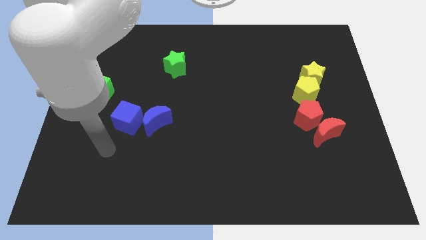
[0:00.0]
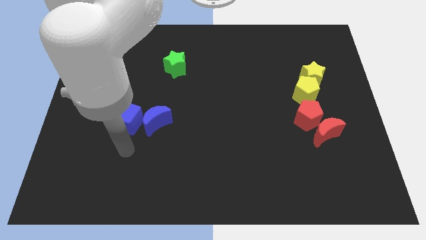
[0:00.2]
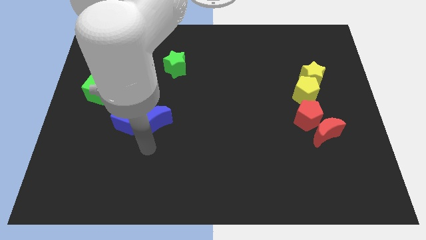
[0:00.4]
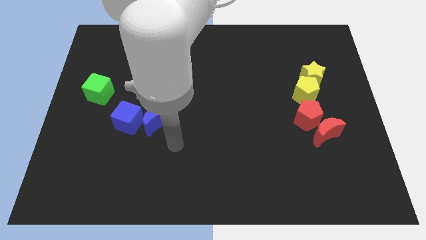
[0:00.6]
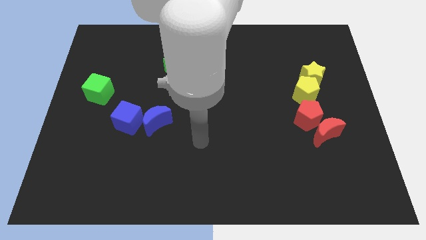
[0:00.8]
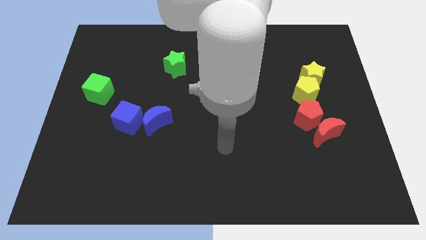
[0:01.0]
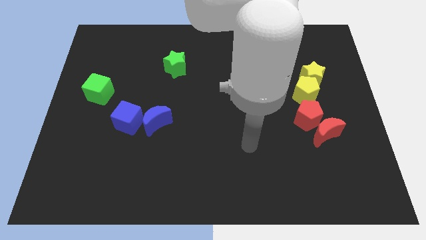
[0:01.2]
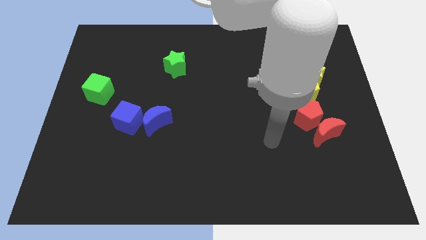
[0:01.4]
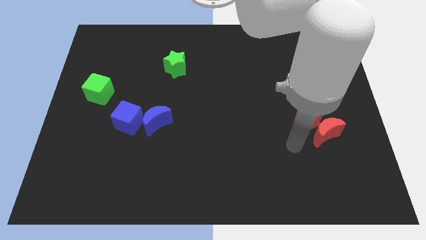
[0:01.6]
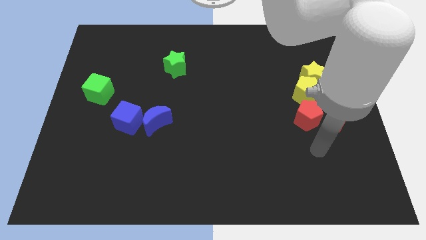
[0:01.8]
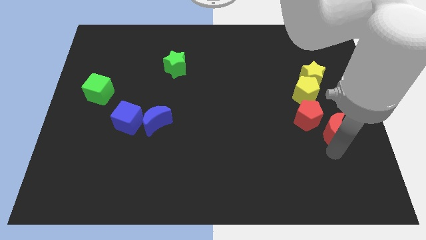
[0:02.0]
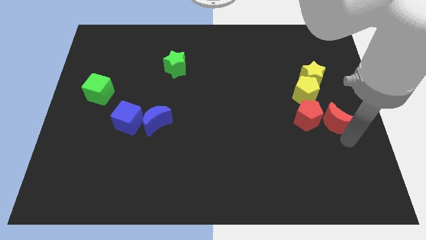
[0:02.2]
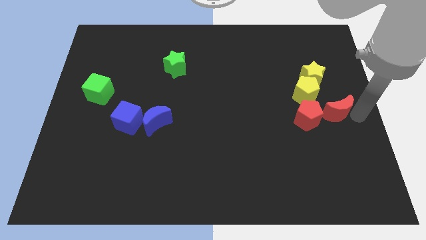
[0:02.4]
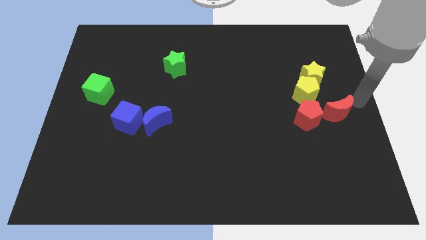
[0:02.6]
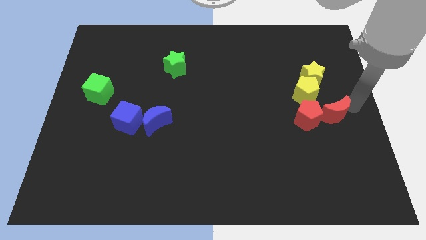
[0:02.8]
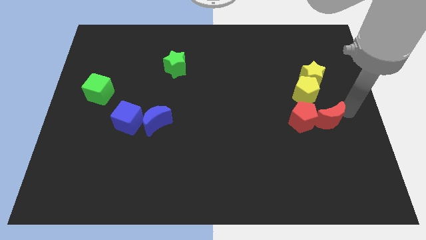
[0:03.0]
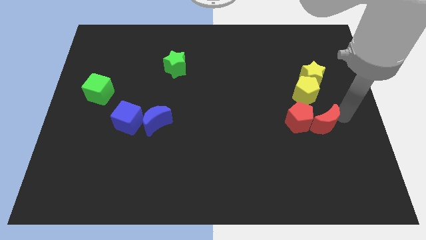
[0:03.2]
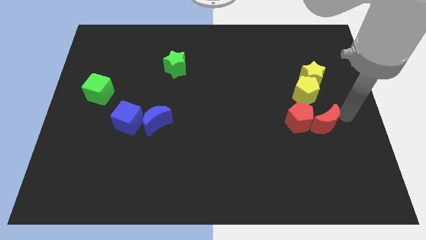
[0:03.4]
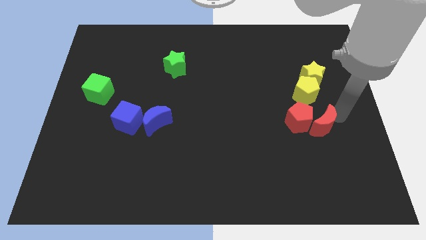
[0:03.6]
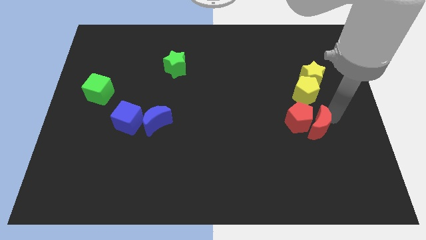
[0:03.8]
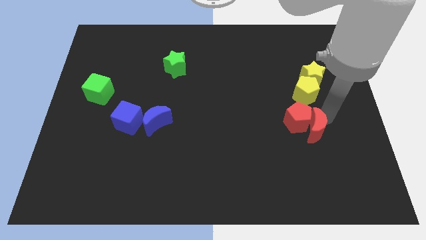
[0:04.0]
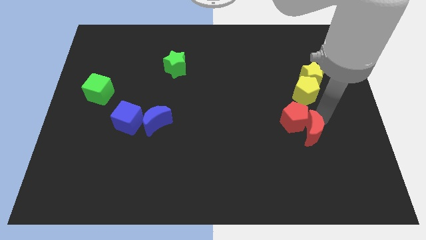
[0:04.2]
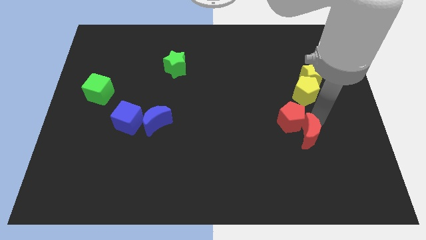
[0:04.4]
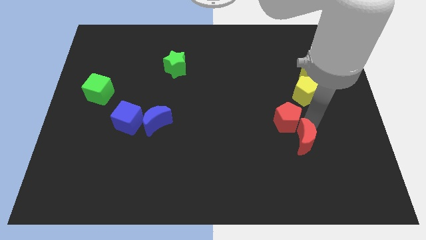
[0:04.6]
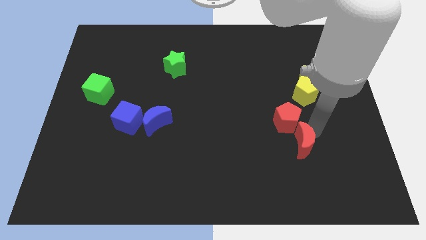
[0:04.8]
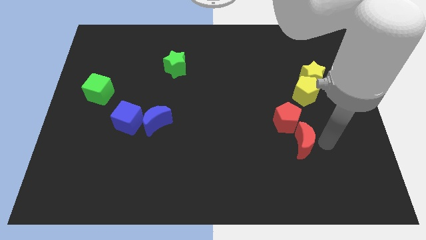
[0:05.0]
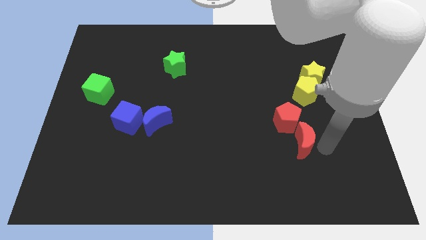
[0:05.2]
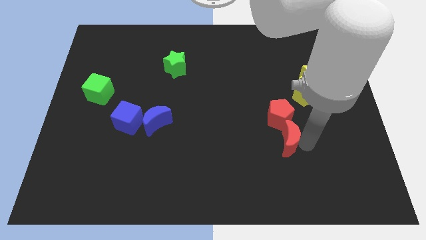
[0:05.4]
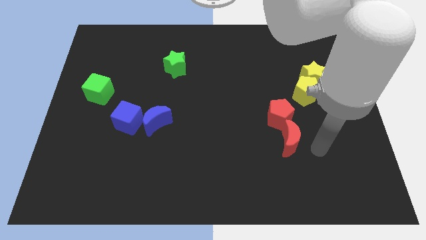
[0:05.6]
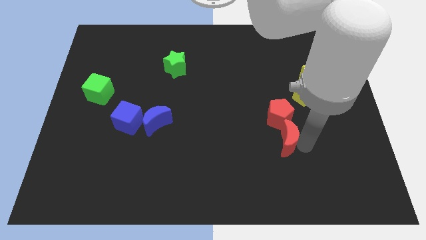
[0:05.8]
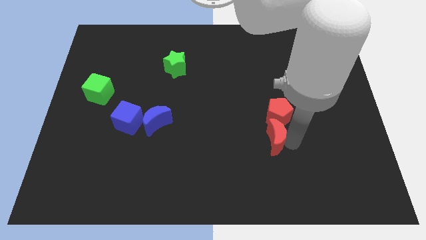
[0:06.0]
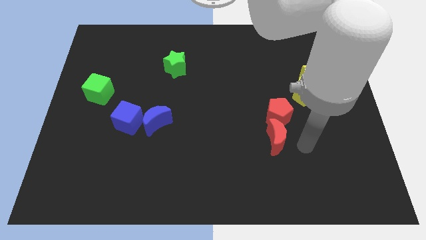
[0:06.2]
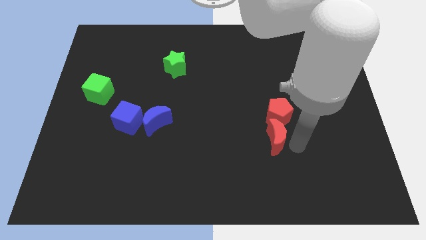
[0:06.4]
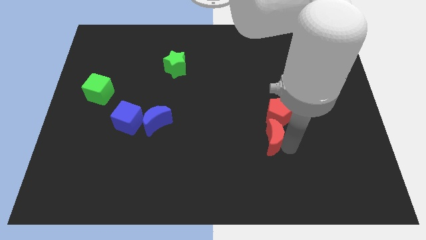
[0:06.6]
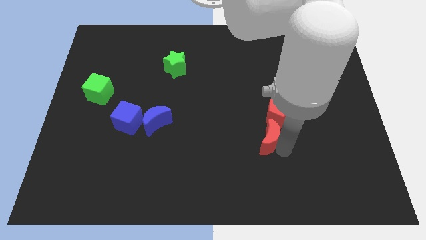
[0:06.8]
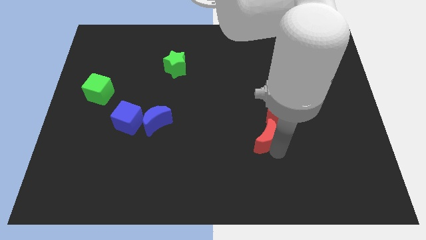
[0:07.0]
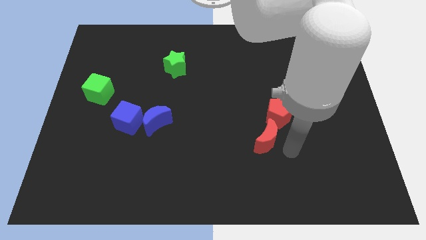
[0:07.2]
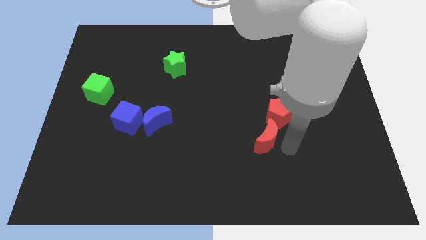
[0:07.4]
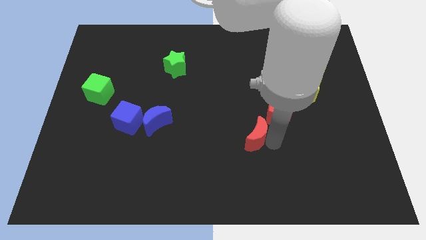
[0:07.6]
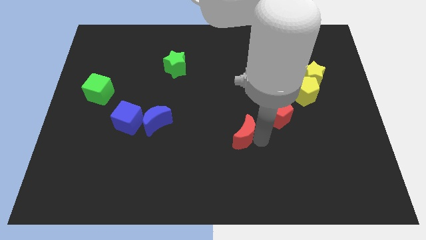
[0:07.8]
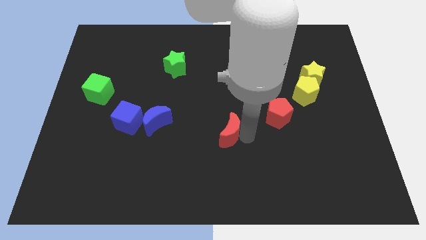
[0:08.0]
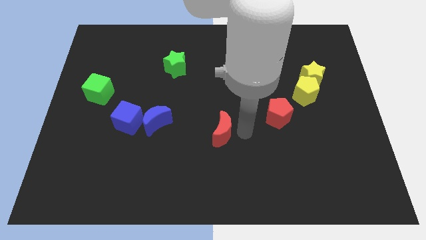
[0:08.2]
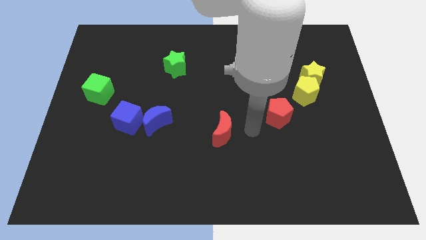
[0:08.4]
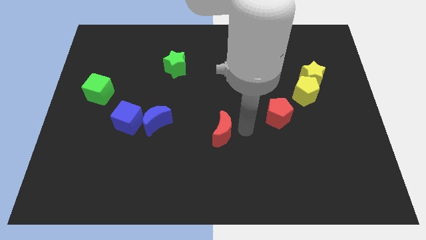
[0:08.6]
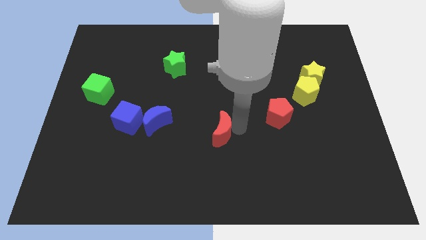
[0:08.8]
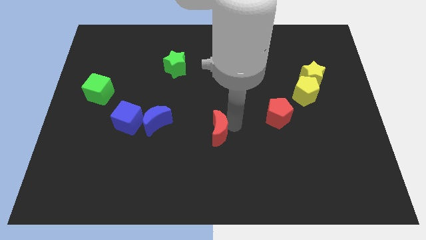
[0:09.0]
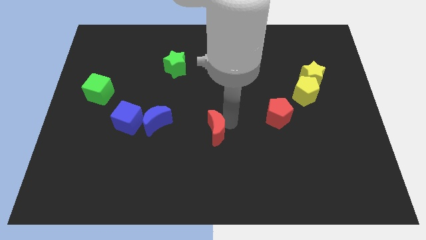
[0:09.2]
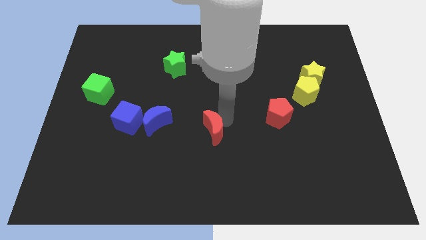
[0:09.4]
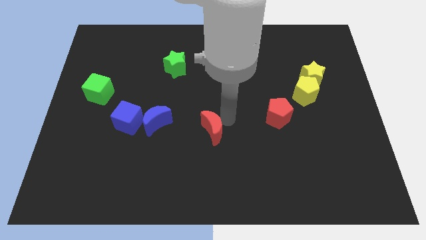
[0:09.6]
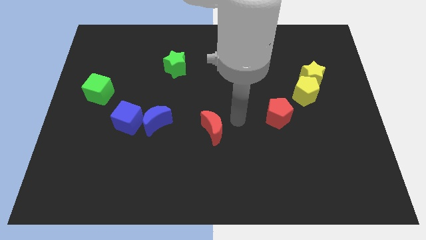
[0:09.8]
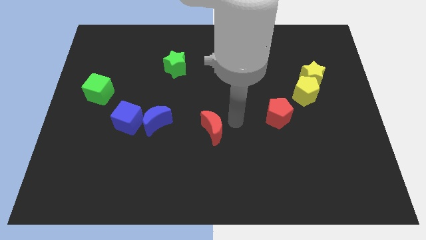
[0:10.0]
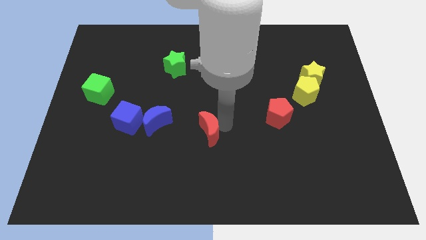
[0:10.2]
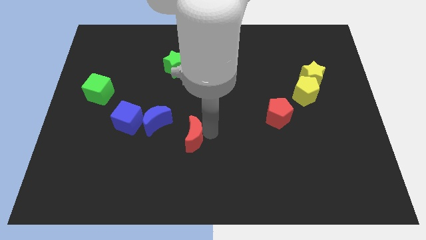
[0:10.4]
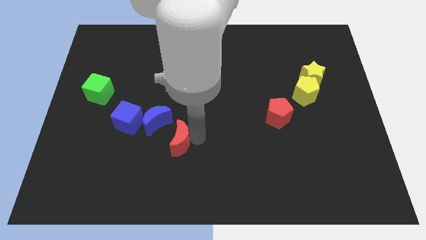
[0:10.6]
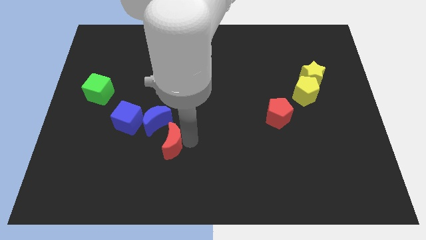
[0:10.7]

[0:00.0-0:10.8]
move the red moon to the bottom right side of the blue cube

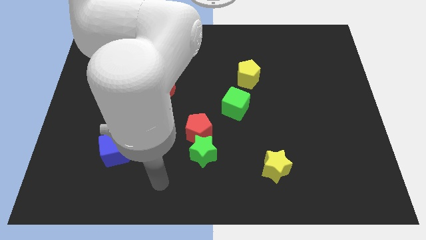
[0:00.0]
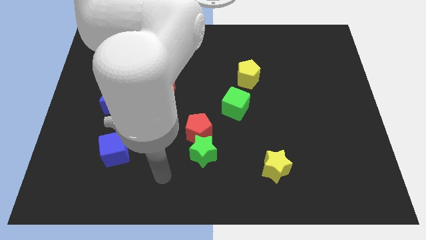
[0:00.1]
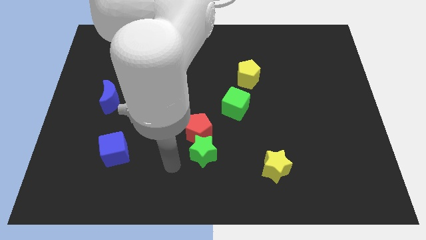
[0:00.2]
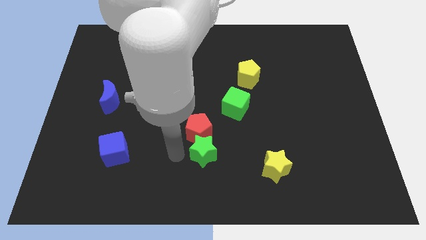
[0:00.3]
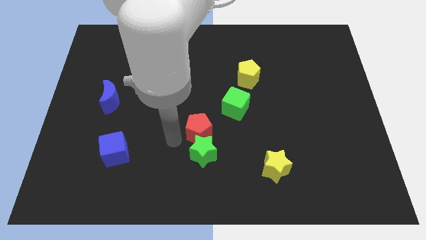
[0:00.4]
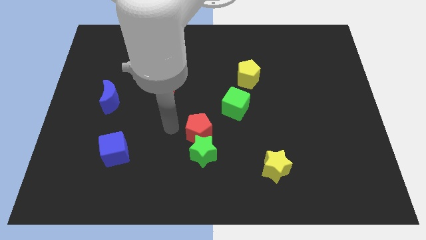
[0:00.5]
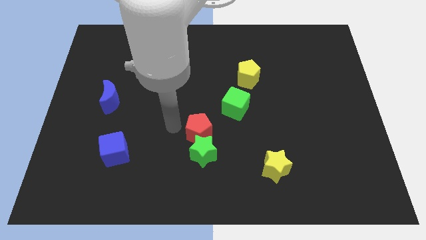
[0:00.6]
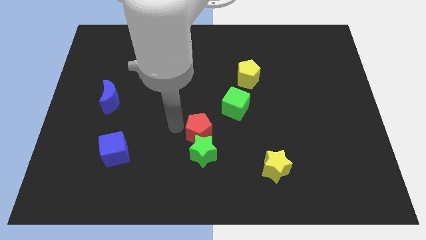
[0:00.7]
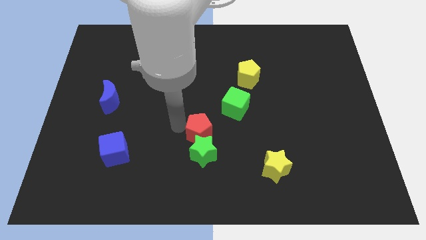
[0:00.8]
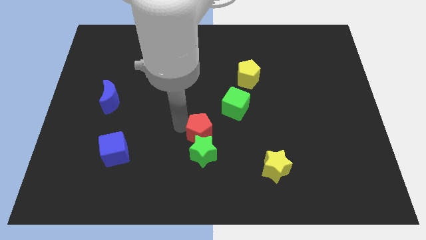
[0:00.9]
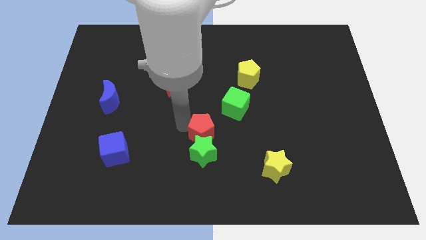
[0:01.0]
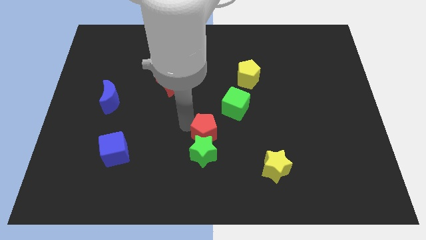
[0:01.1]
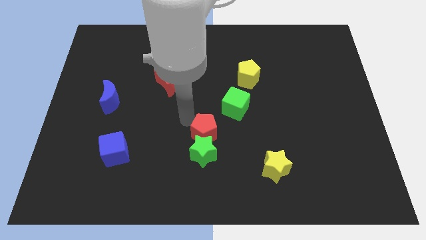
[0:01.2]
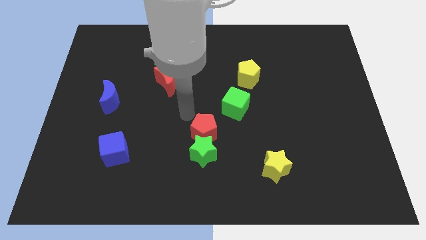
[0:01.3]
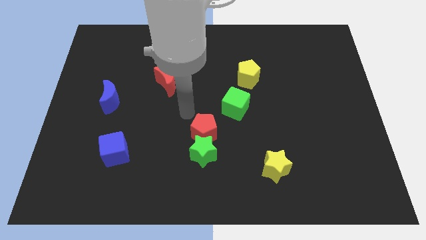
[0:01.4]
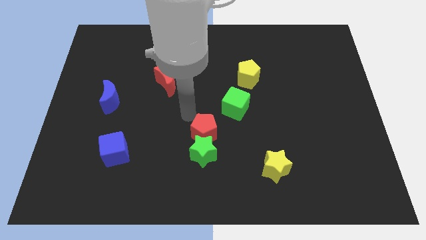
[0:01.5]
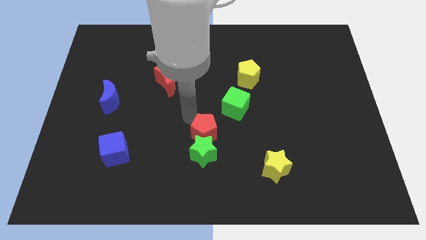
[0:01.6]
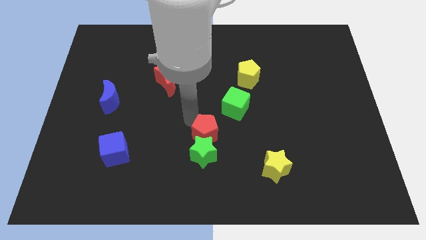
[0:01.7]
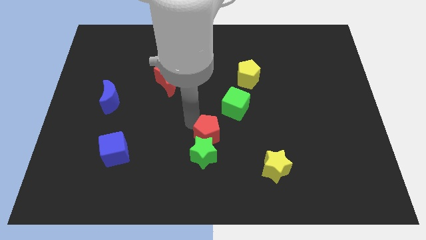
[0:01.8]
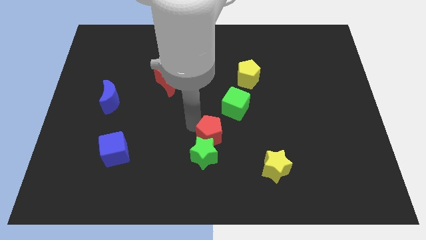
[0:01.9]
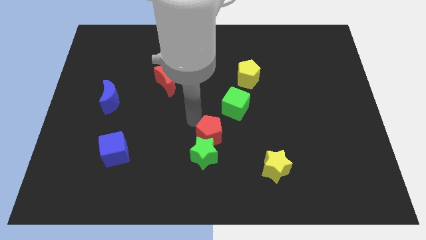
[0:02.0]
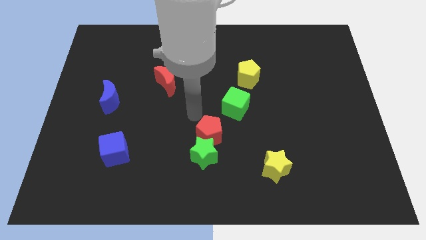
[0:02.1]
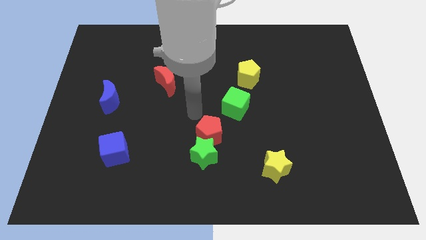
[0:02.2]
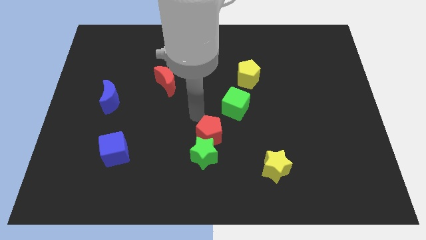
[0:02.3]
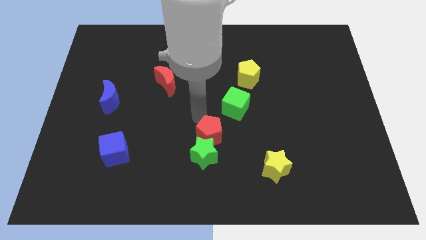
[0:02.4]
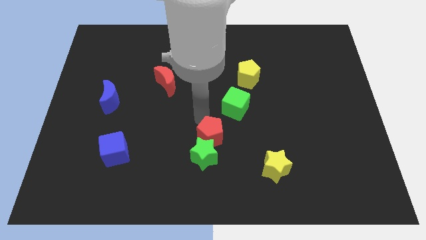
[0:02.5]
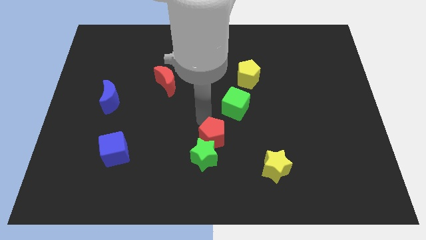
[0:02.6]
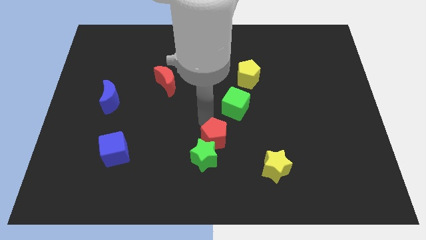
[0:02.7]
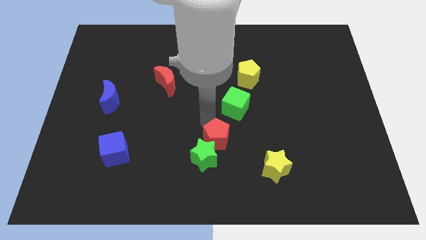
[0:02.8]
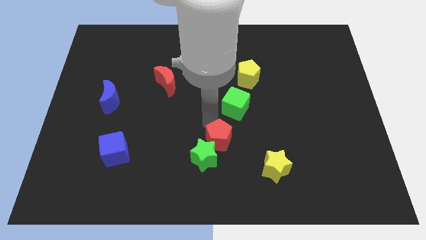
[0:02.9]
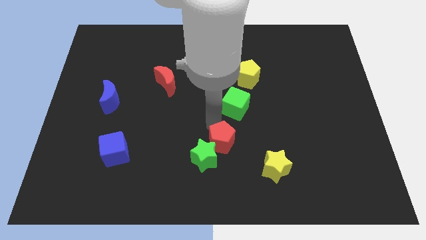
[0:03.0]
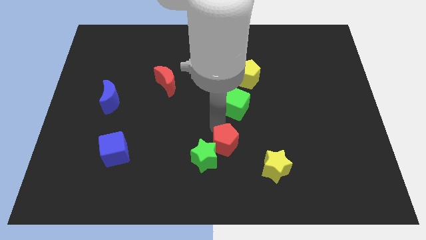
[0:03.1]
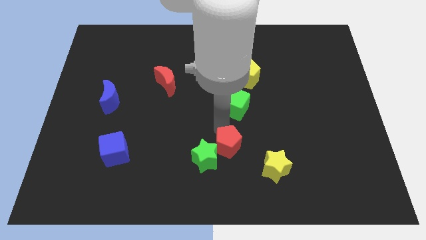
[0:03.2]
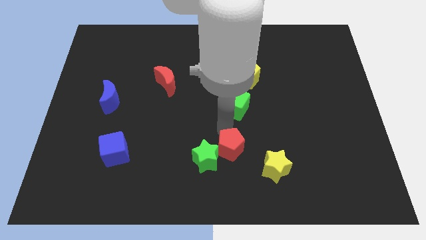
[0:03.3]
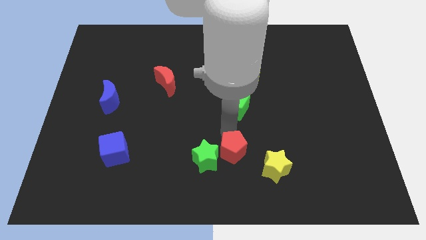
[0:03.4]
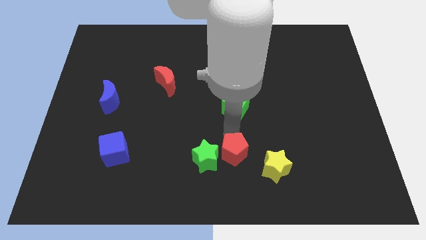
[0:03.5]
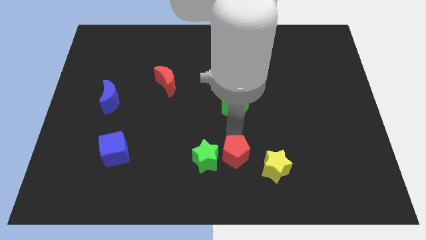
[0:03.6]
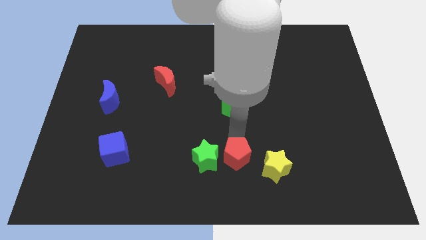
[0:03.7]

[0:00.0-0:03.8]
slide the red pentagon to the bottom right side of the green star
